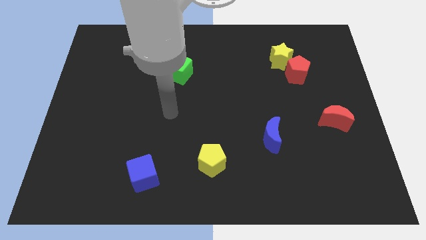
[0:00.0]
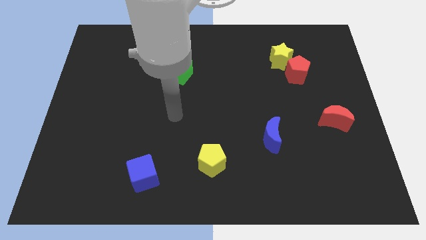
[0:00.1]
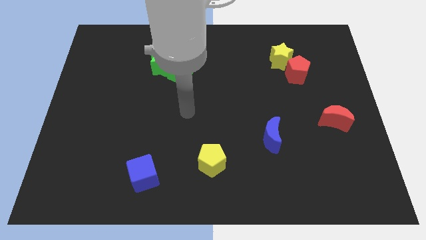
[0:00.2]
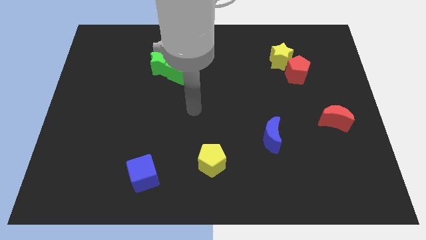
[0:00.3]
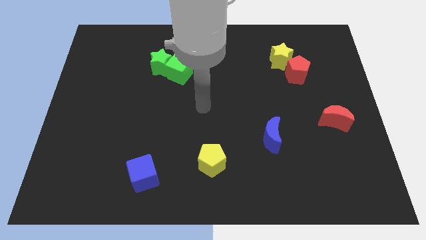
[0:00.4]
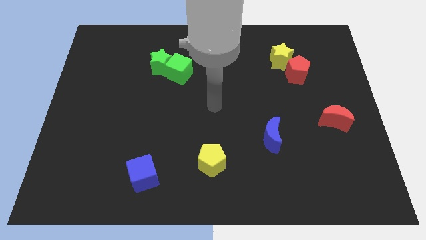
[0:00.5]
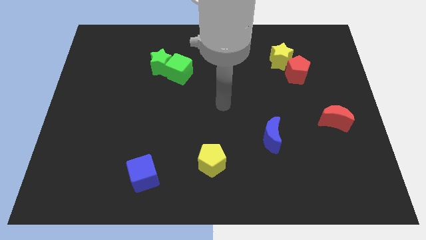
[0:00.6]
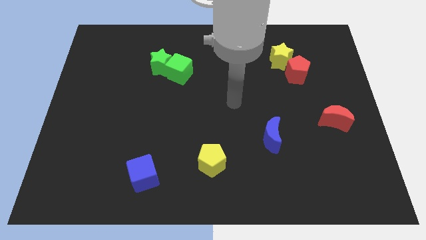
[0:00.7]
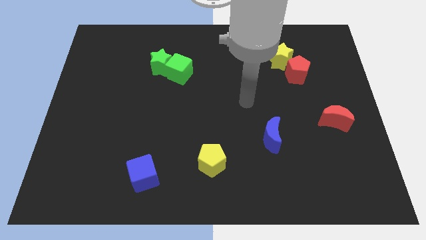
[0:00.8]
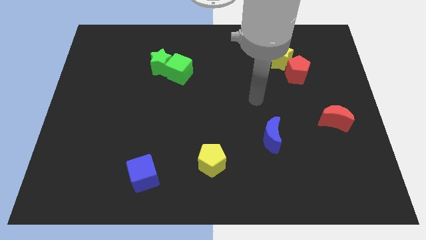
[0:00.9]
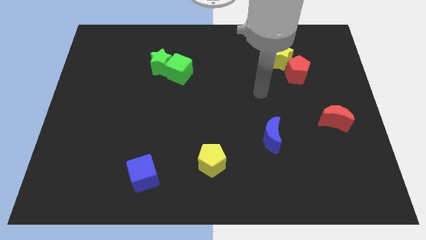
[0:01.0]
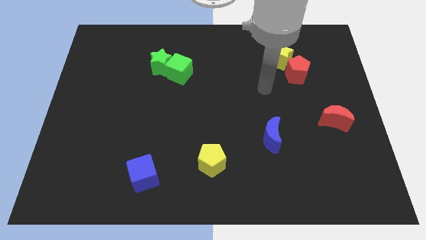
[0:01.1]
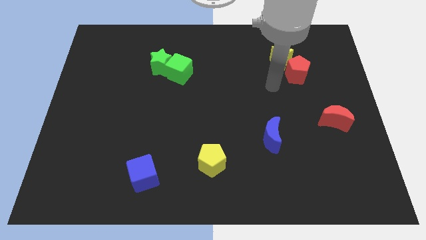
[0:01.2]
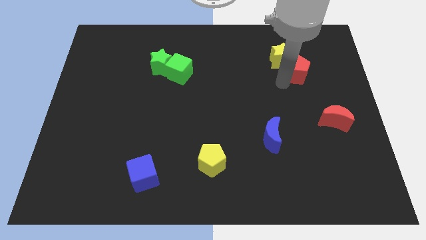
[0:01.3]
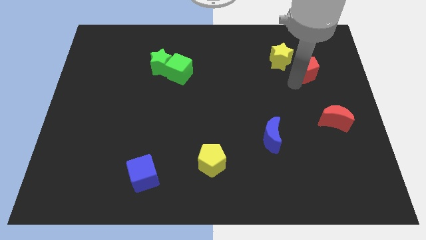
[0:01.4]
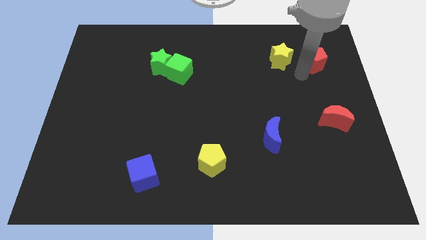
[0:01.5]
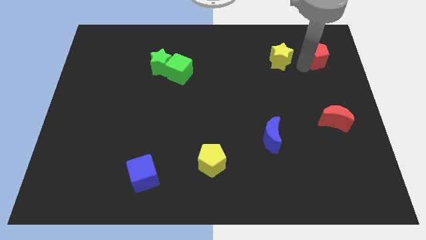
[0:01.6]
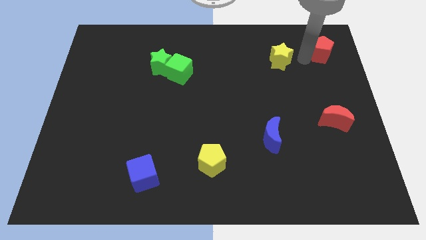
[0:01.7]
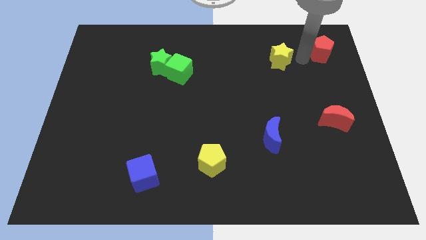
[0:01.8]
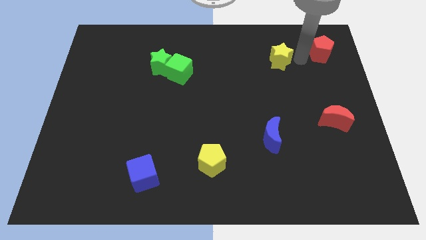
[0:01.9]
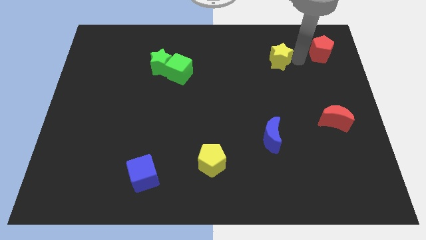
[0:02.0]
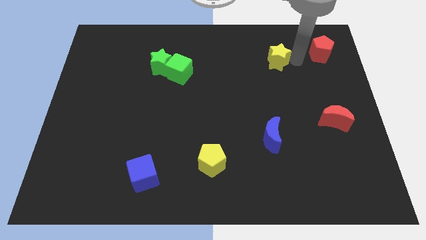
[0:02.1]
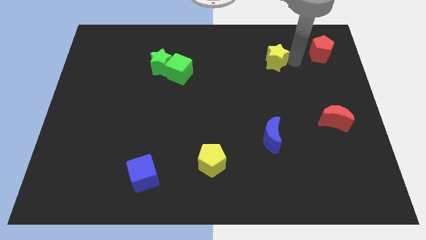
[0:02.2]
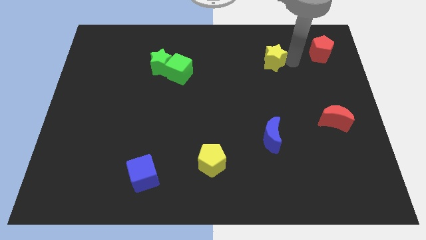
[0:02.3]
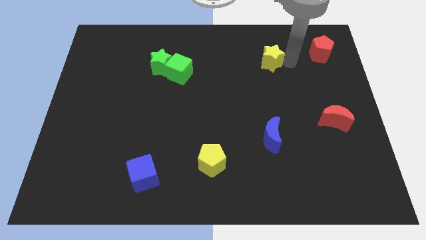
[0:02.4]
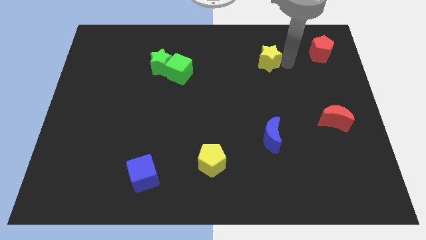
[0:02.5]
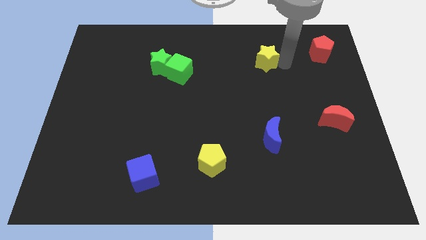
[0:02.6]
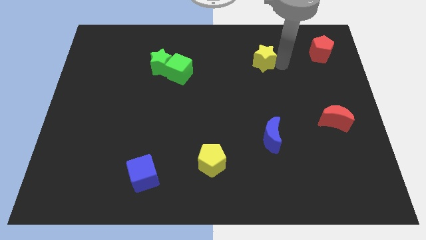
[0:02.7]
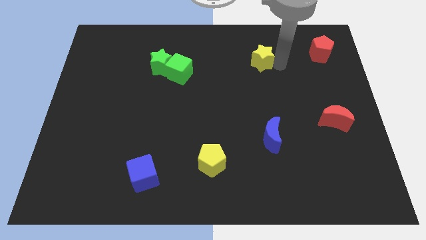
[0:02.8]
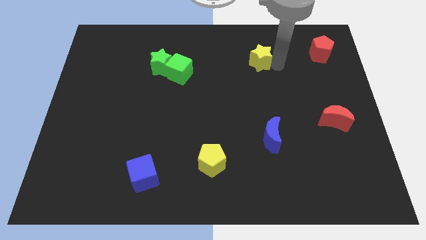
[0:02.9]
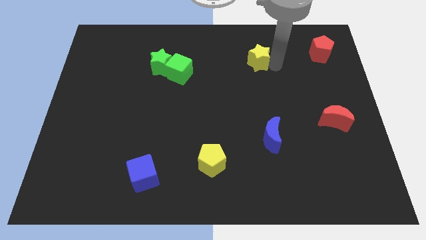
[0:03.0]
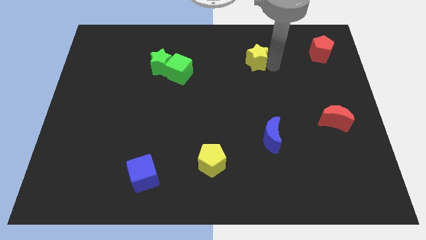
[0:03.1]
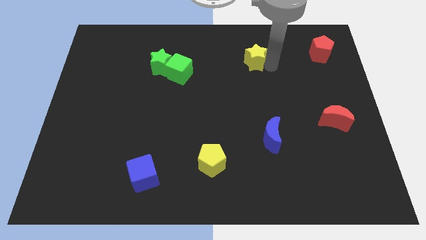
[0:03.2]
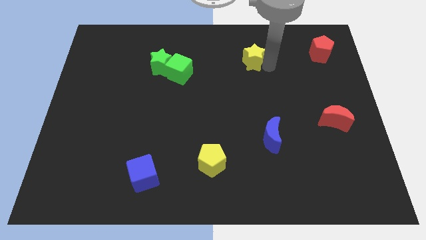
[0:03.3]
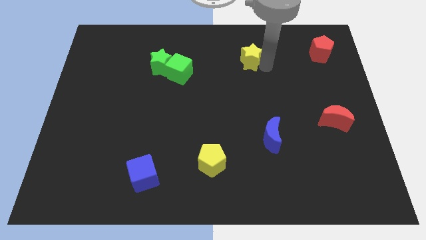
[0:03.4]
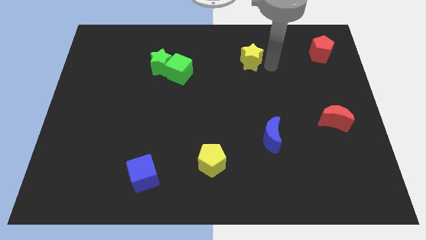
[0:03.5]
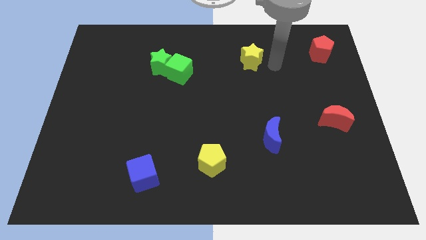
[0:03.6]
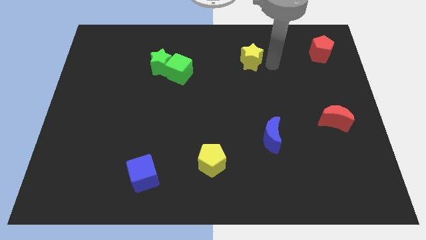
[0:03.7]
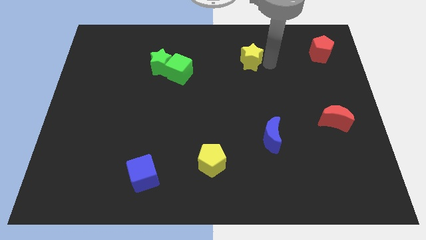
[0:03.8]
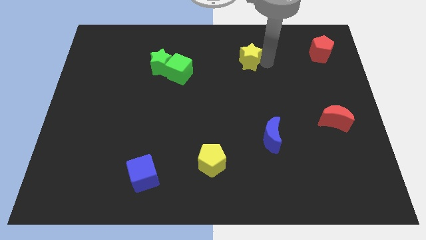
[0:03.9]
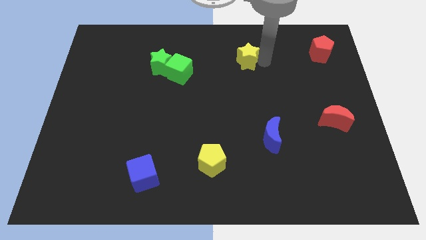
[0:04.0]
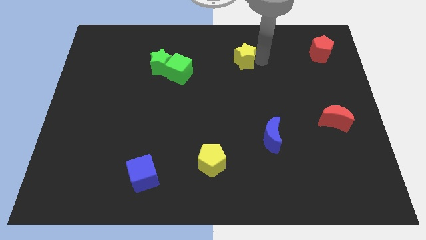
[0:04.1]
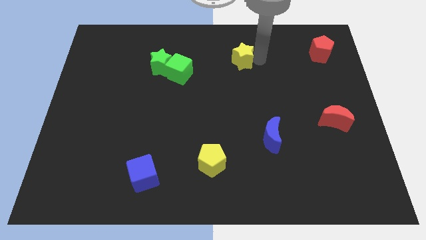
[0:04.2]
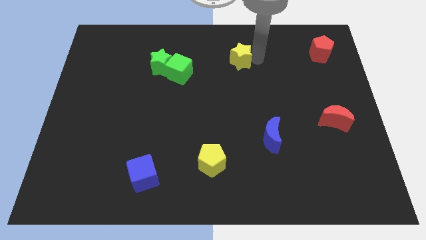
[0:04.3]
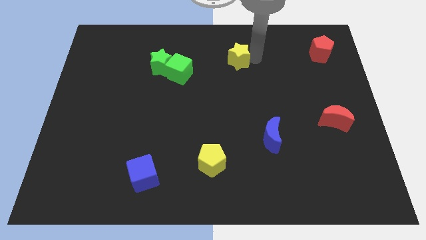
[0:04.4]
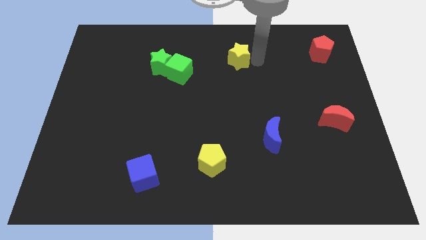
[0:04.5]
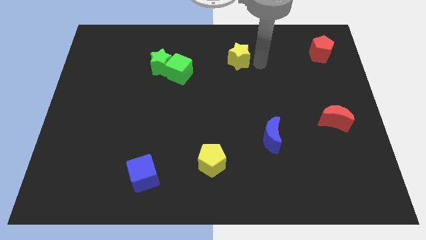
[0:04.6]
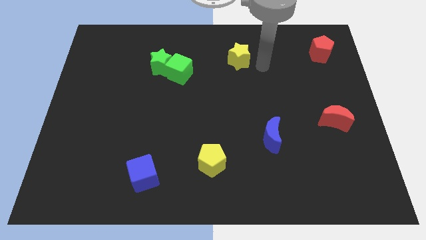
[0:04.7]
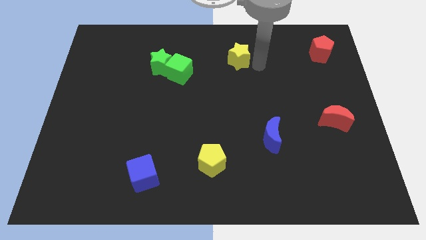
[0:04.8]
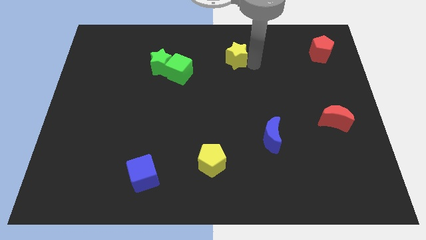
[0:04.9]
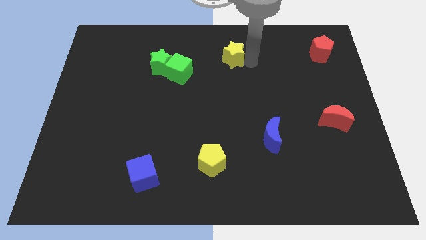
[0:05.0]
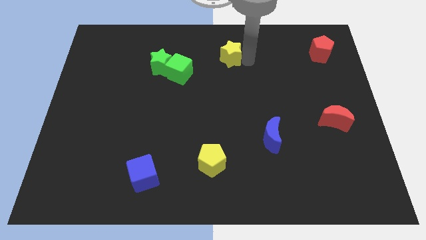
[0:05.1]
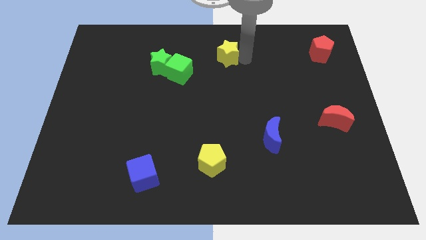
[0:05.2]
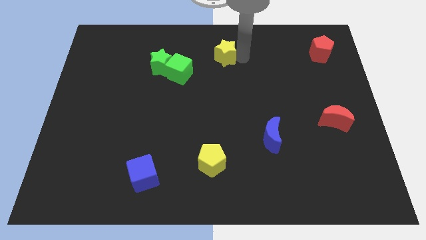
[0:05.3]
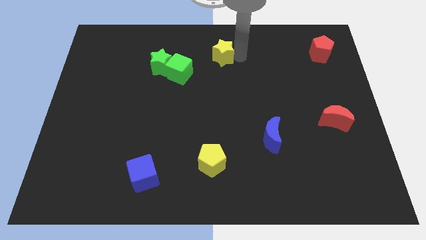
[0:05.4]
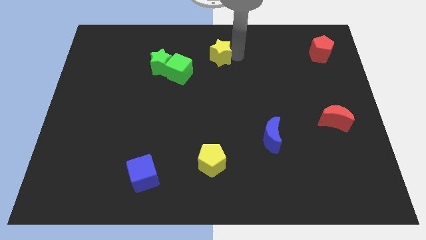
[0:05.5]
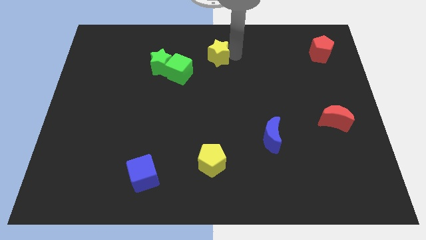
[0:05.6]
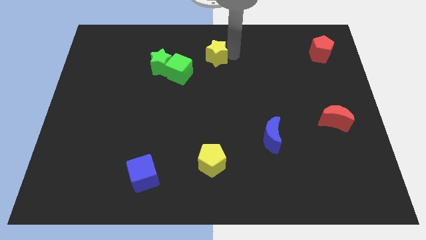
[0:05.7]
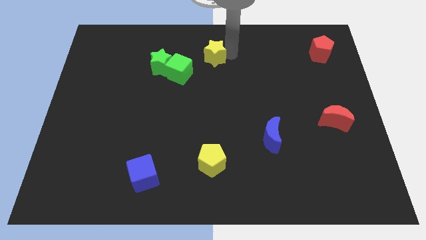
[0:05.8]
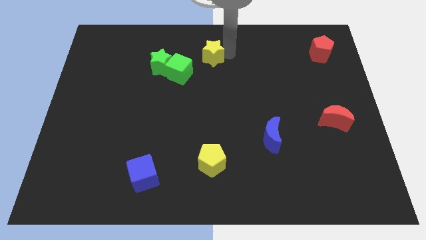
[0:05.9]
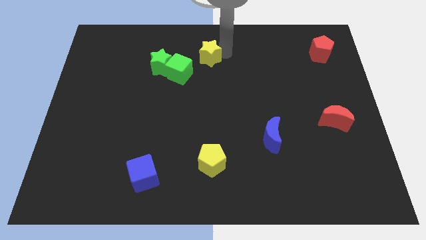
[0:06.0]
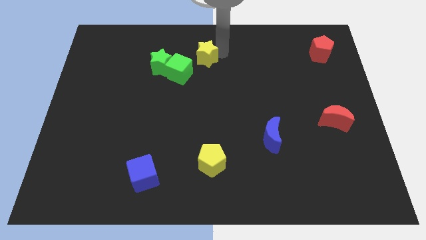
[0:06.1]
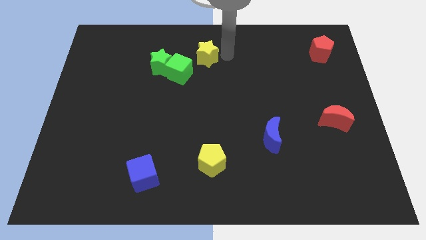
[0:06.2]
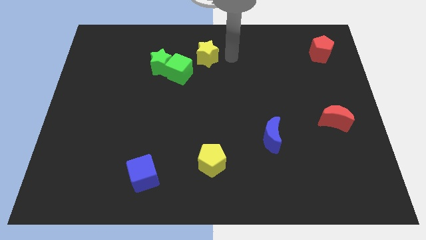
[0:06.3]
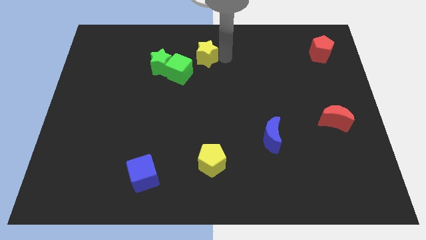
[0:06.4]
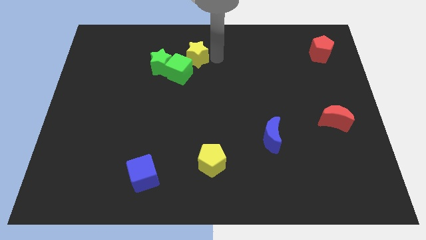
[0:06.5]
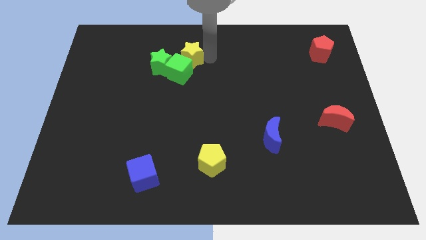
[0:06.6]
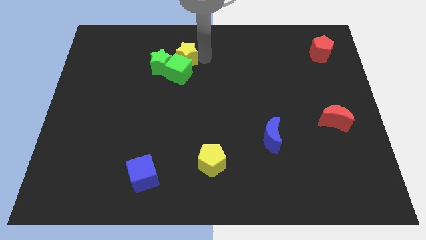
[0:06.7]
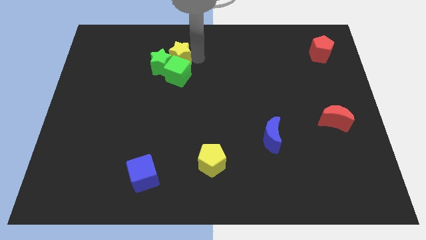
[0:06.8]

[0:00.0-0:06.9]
push the yellow star to the green star
